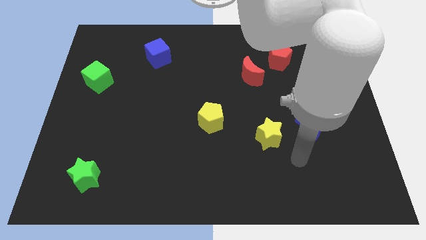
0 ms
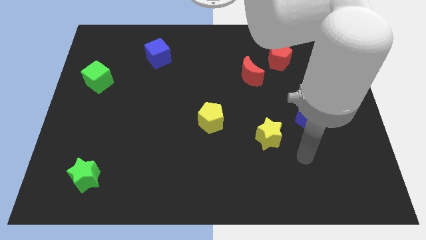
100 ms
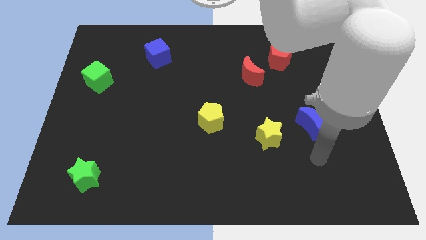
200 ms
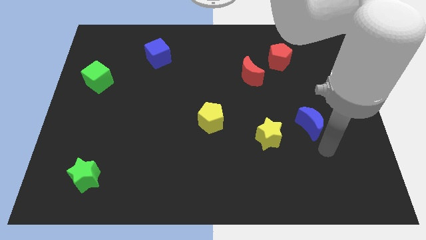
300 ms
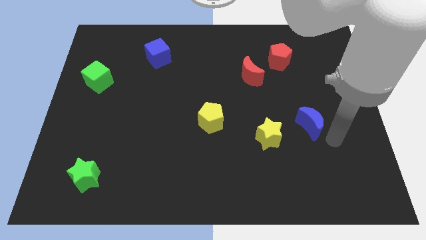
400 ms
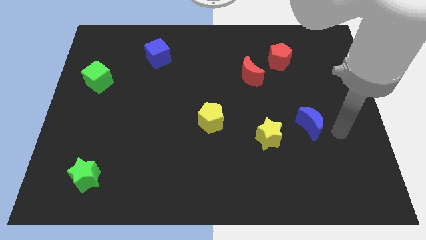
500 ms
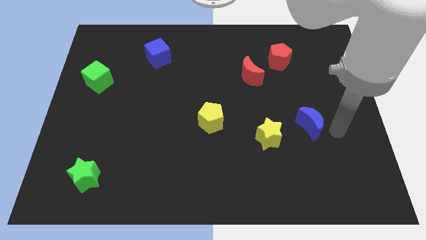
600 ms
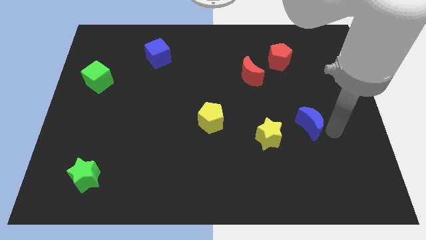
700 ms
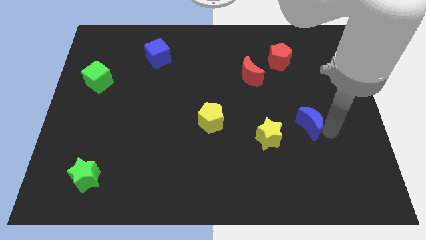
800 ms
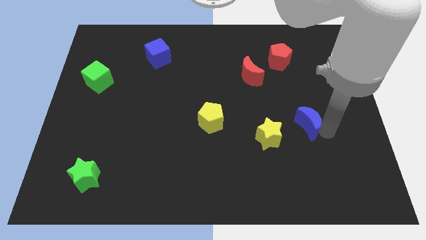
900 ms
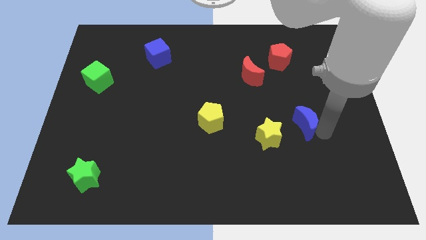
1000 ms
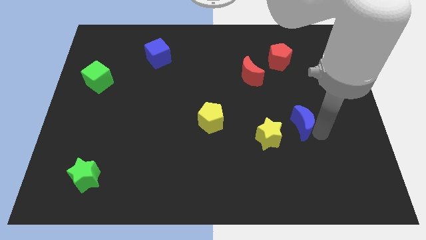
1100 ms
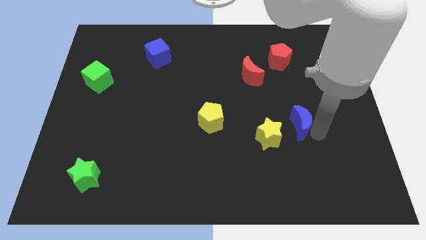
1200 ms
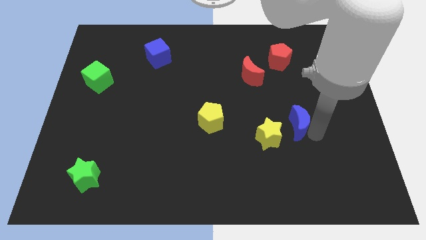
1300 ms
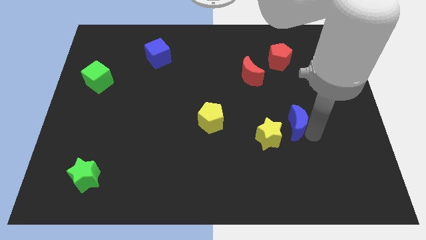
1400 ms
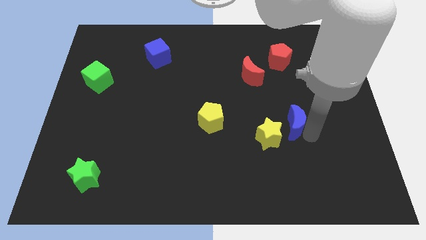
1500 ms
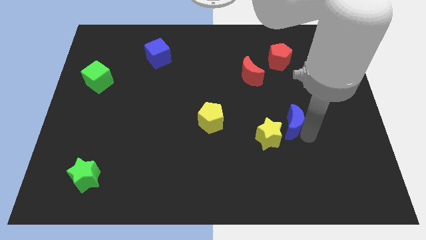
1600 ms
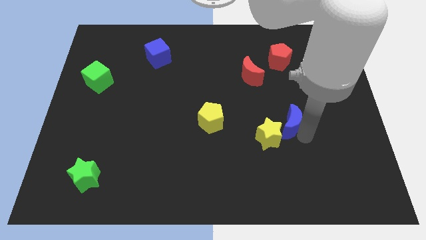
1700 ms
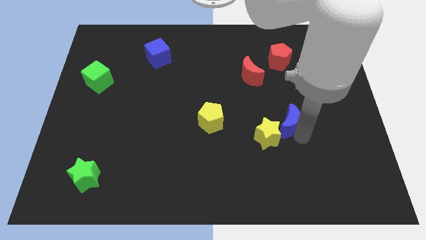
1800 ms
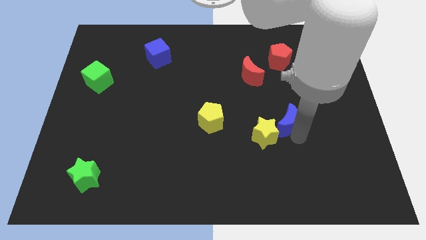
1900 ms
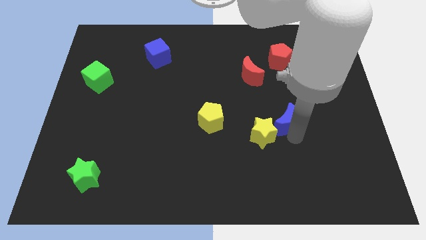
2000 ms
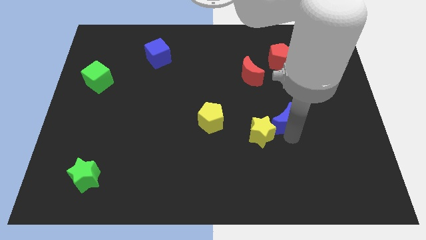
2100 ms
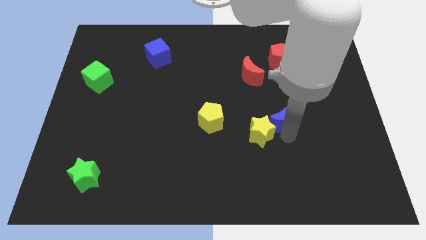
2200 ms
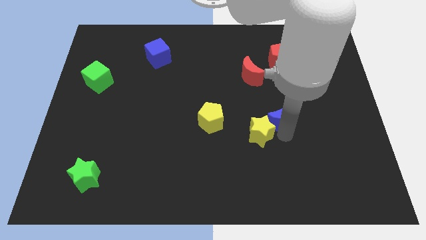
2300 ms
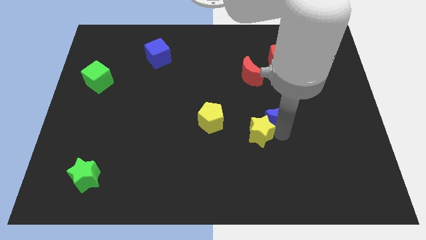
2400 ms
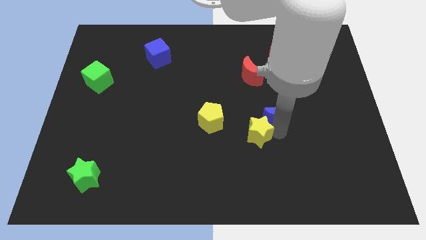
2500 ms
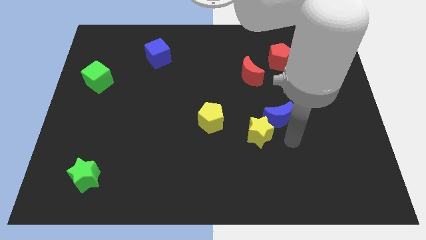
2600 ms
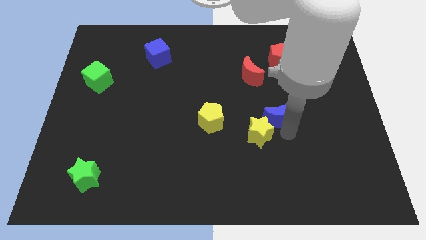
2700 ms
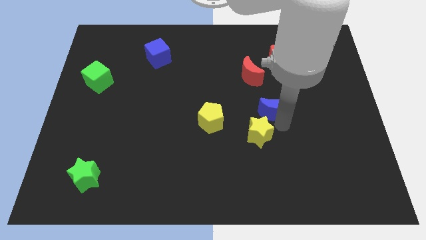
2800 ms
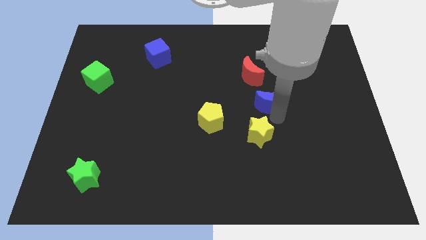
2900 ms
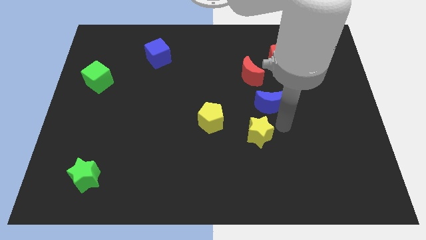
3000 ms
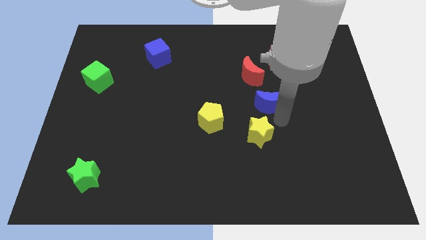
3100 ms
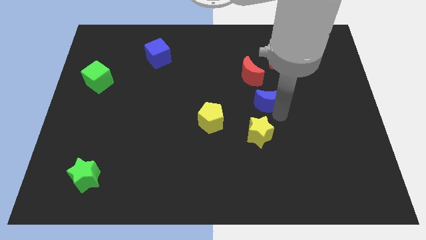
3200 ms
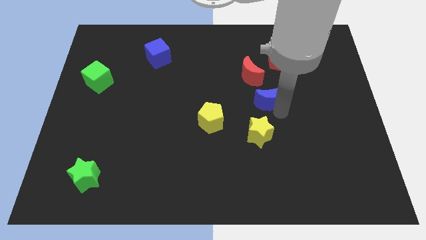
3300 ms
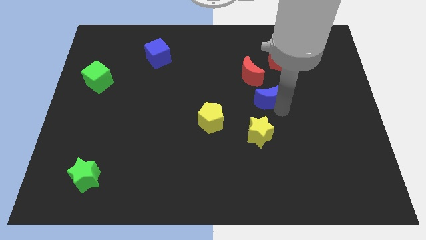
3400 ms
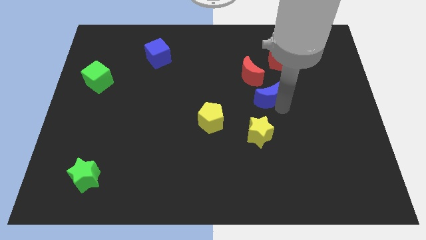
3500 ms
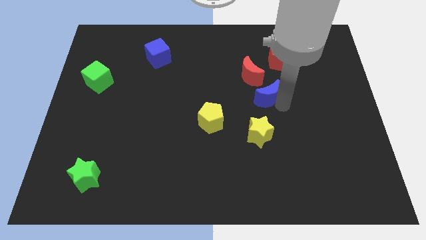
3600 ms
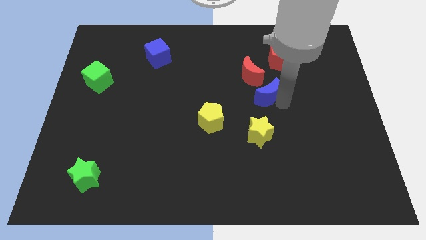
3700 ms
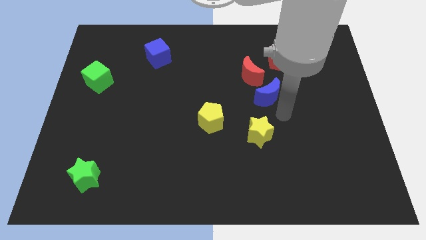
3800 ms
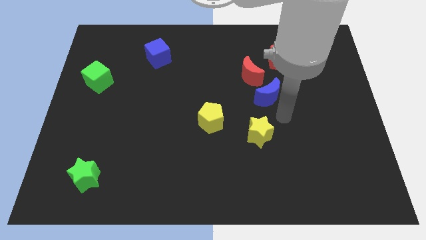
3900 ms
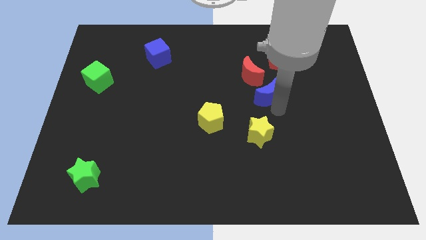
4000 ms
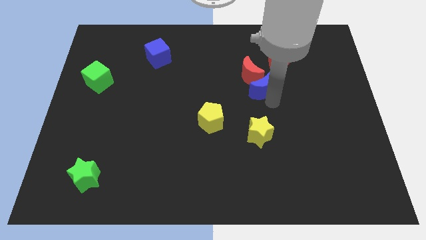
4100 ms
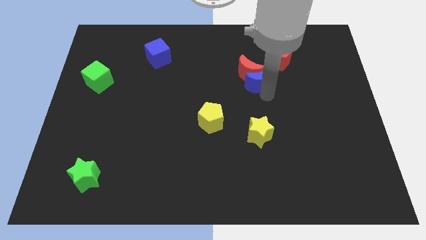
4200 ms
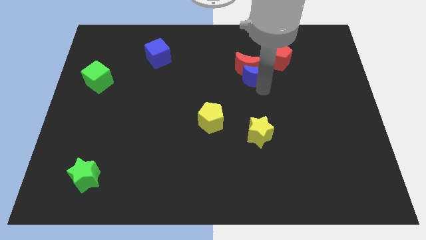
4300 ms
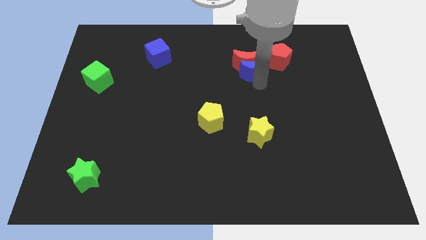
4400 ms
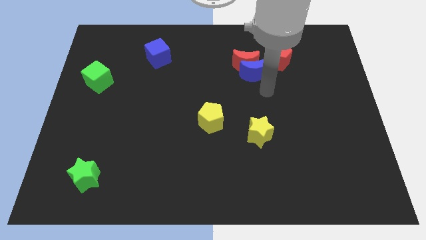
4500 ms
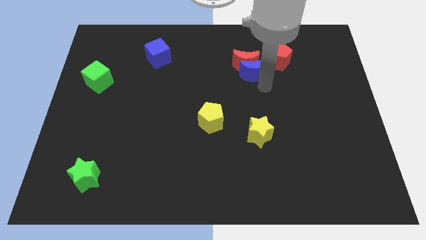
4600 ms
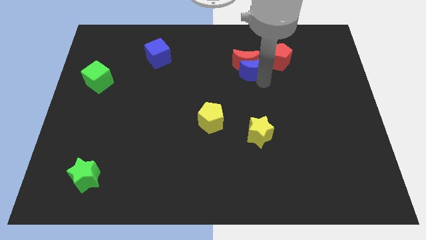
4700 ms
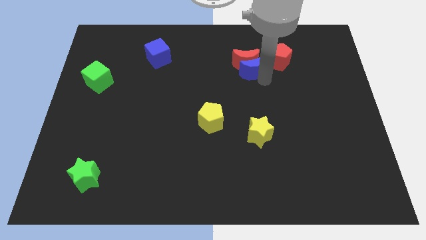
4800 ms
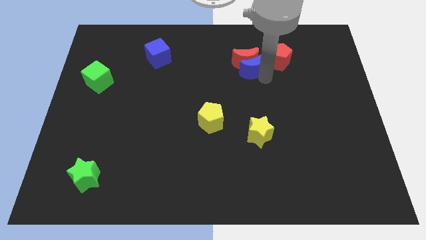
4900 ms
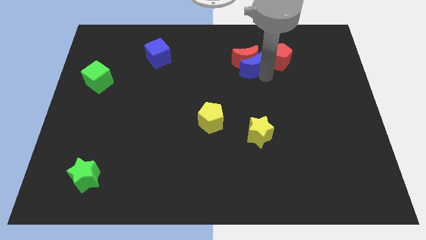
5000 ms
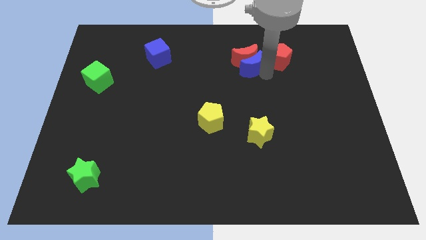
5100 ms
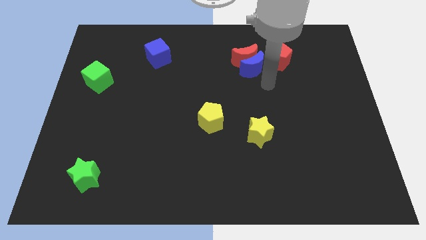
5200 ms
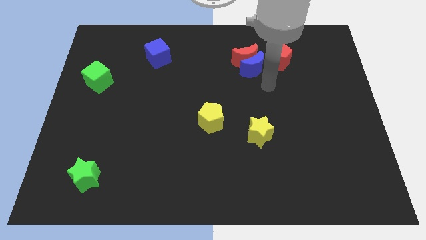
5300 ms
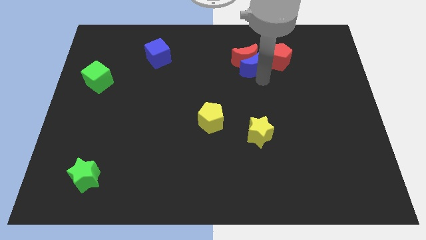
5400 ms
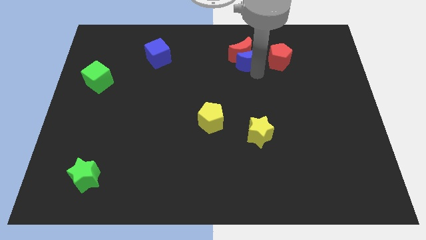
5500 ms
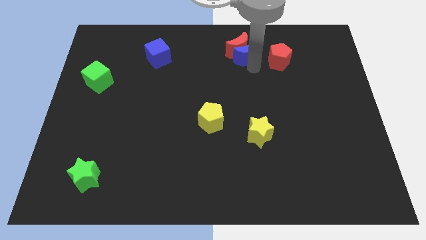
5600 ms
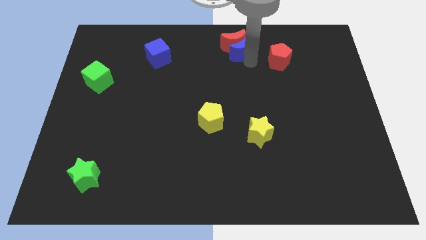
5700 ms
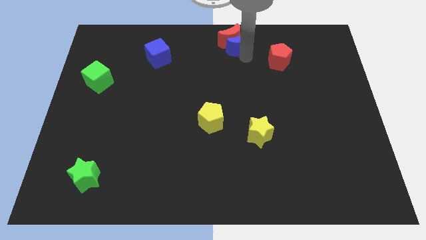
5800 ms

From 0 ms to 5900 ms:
push the blue moon to the top side

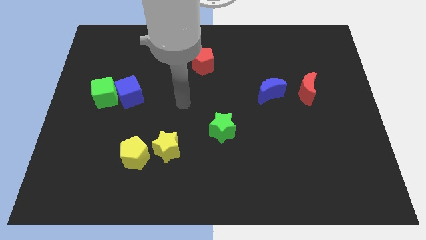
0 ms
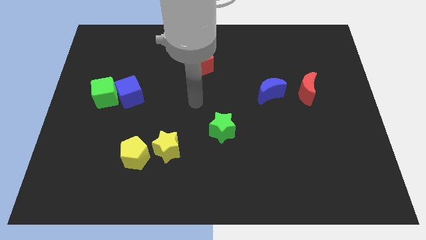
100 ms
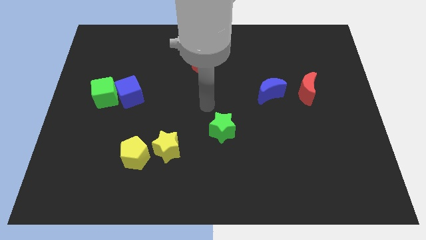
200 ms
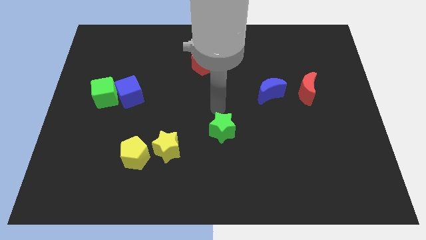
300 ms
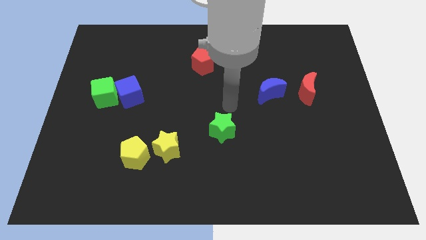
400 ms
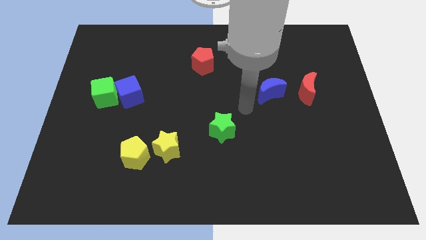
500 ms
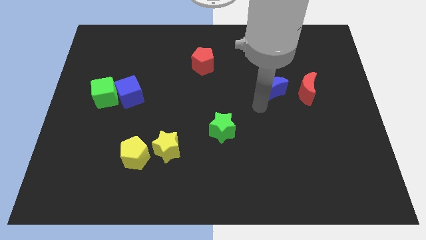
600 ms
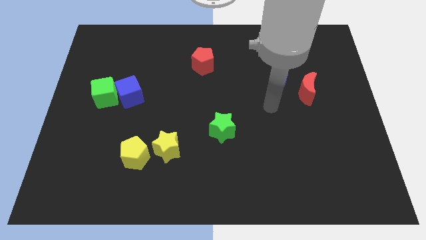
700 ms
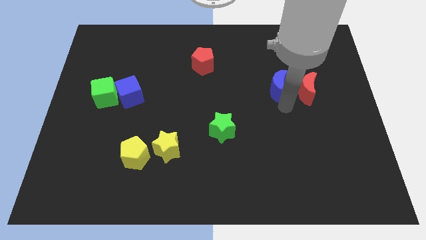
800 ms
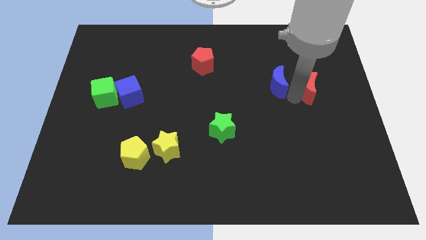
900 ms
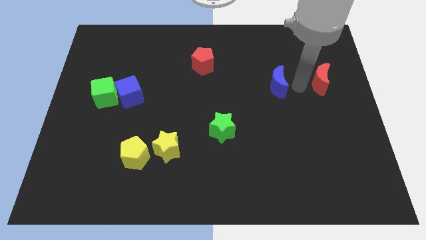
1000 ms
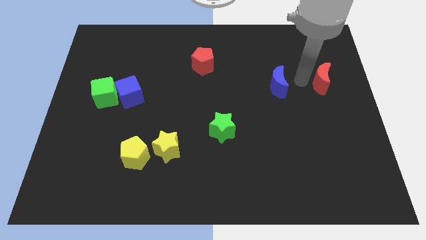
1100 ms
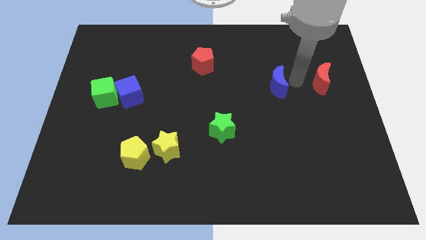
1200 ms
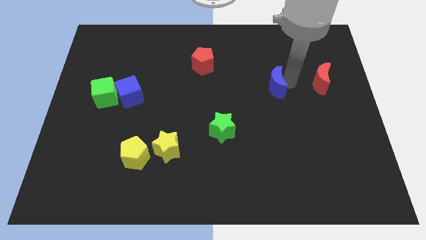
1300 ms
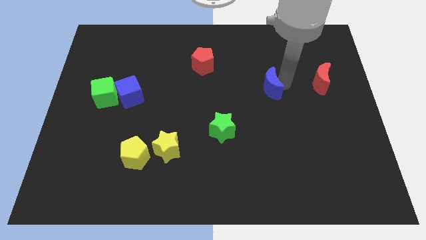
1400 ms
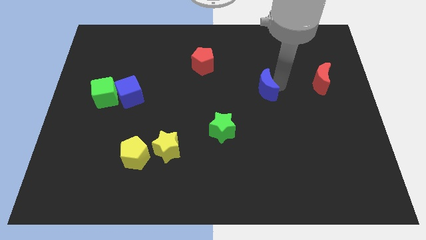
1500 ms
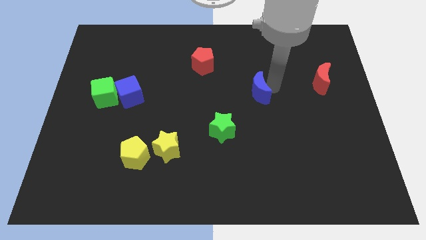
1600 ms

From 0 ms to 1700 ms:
put the blue moon to the center of the board
